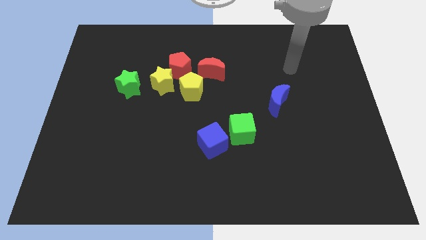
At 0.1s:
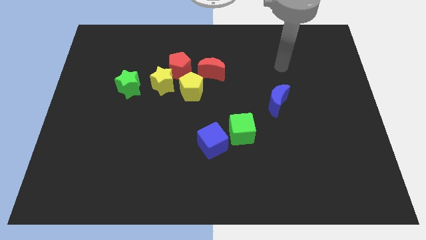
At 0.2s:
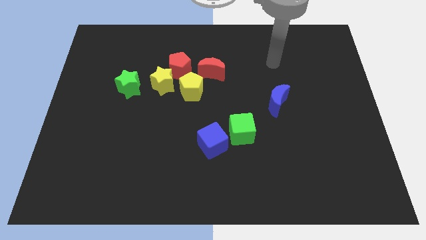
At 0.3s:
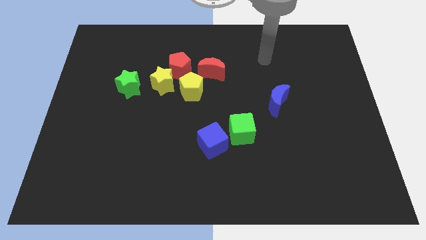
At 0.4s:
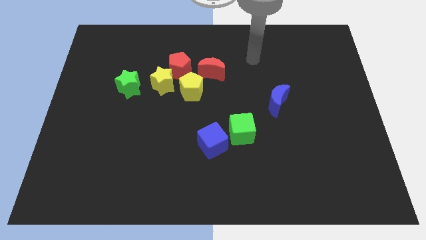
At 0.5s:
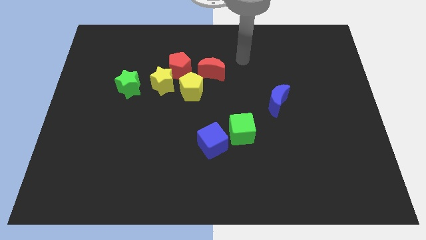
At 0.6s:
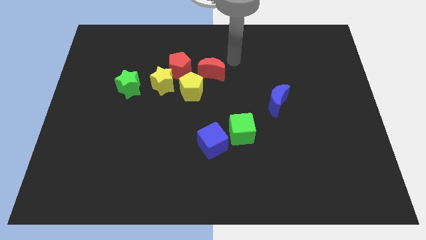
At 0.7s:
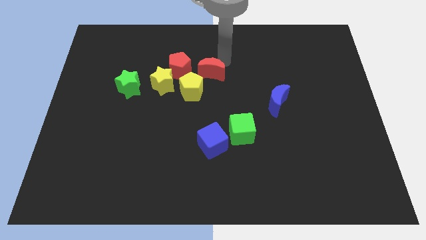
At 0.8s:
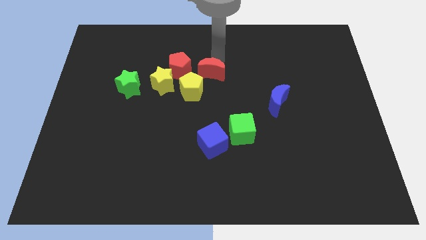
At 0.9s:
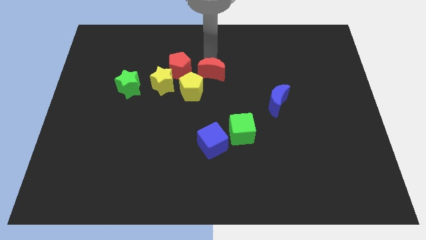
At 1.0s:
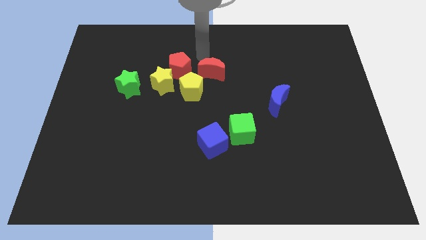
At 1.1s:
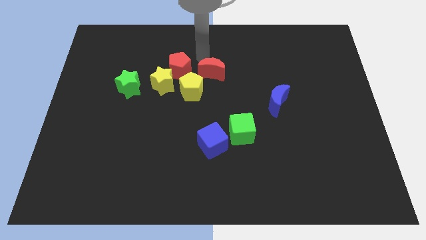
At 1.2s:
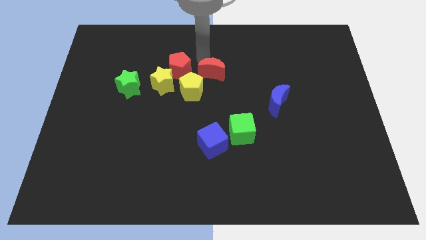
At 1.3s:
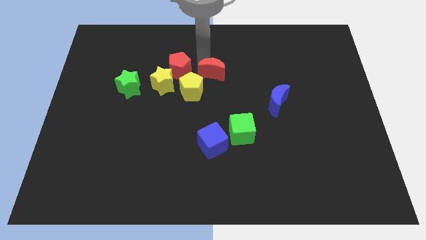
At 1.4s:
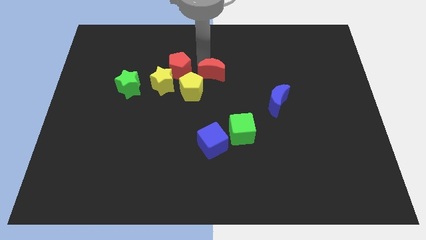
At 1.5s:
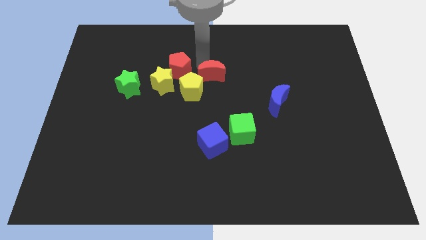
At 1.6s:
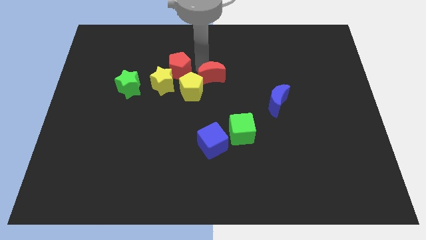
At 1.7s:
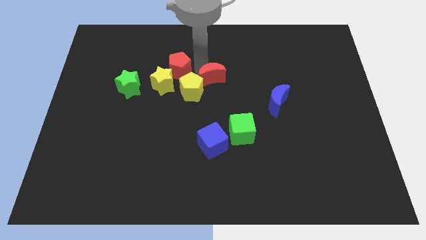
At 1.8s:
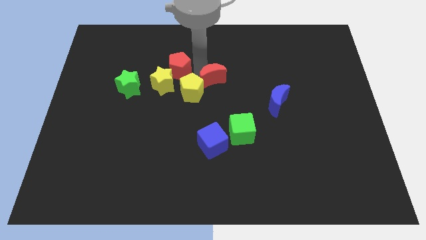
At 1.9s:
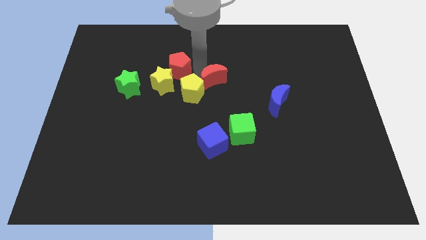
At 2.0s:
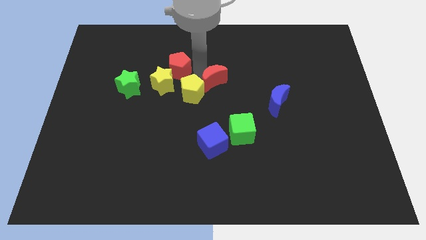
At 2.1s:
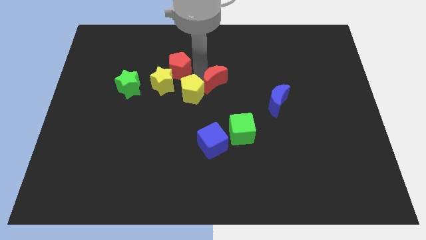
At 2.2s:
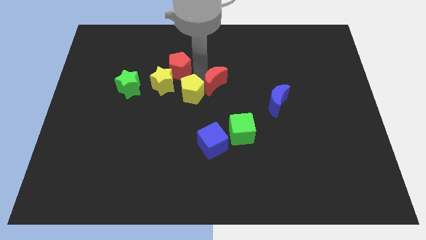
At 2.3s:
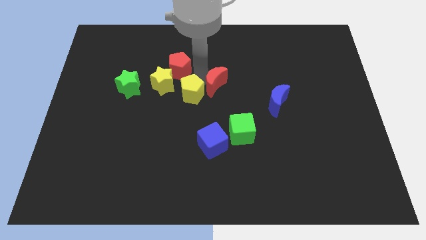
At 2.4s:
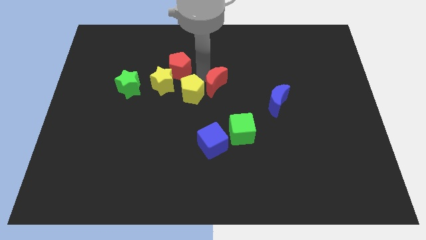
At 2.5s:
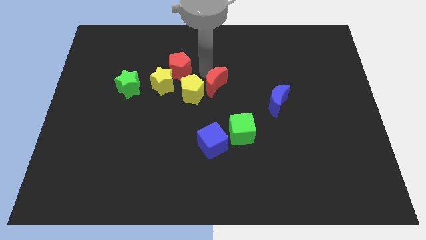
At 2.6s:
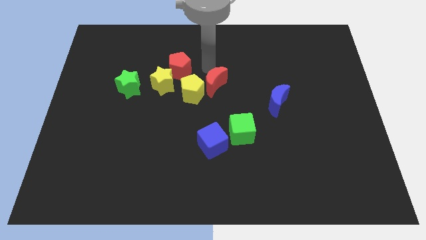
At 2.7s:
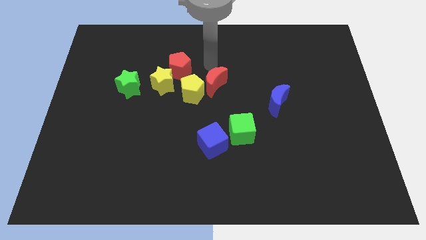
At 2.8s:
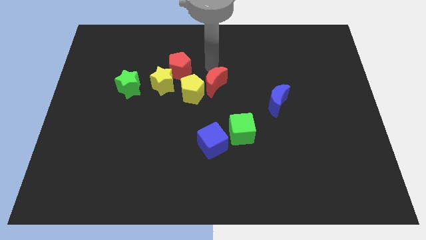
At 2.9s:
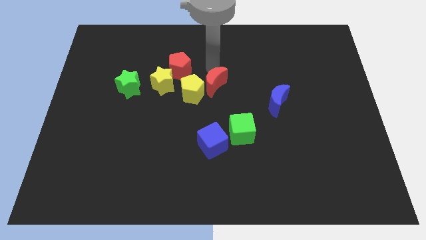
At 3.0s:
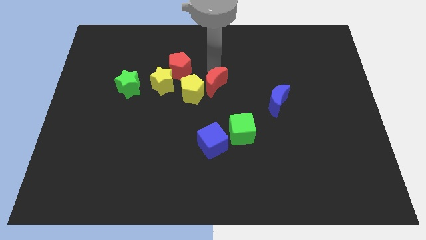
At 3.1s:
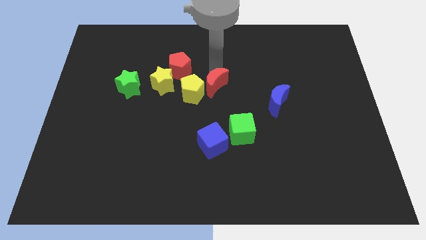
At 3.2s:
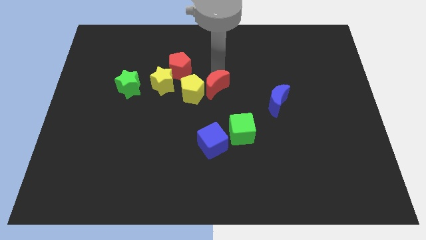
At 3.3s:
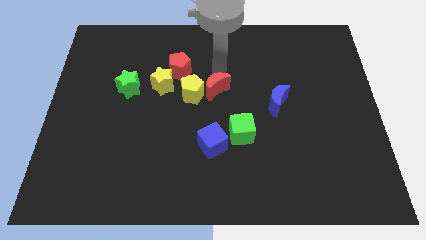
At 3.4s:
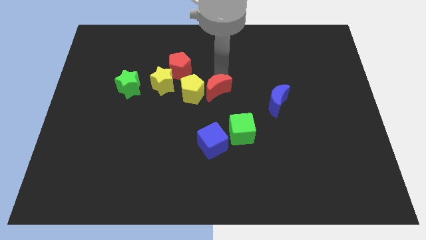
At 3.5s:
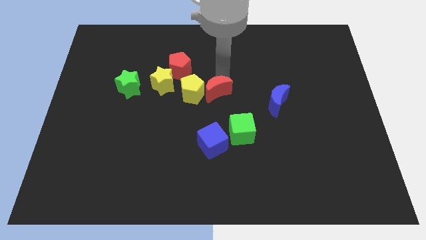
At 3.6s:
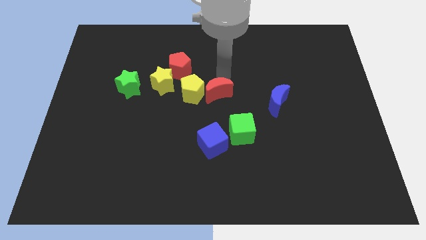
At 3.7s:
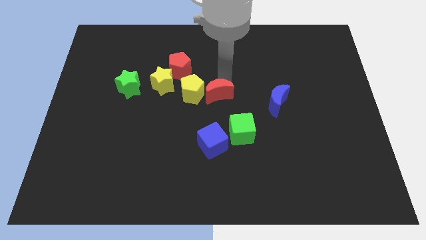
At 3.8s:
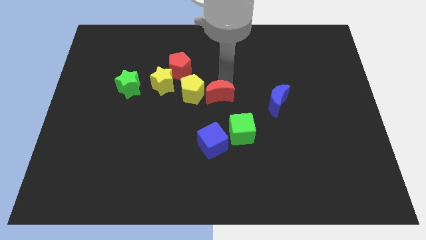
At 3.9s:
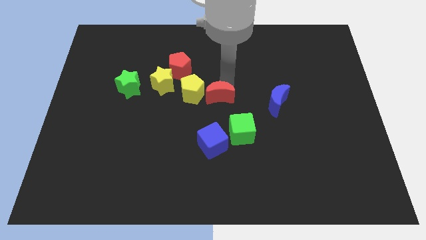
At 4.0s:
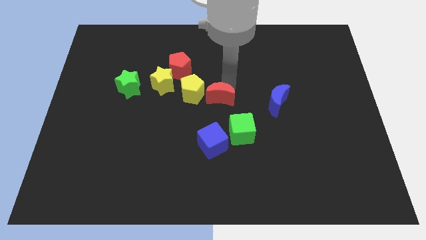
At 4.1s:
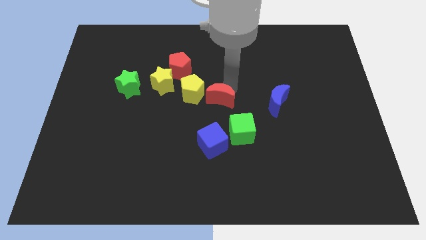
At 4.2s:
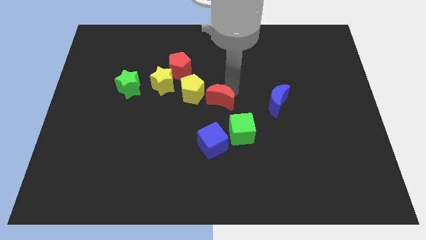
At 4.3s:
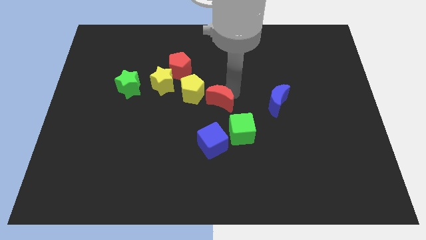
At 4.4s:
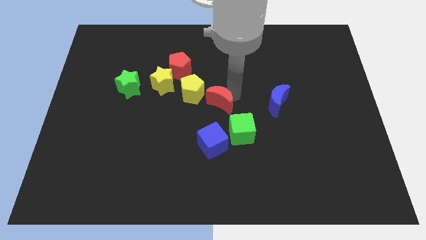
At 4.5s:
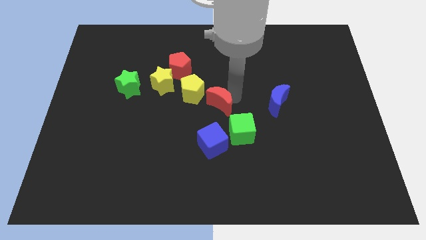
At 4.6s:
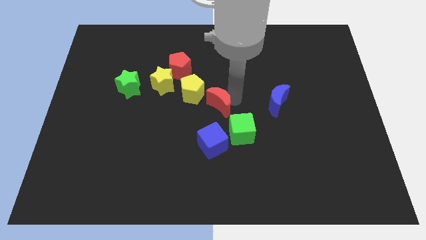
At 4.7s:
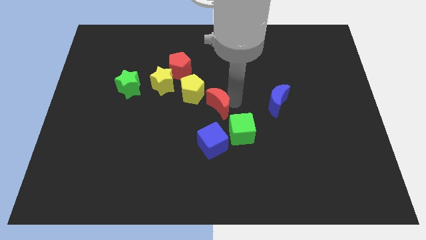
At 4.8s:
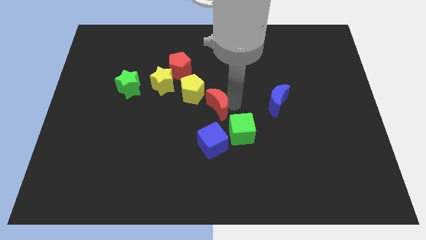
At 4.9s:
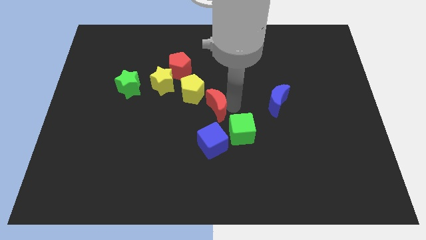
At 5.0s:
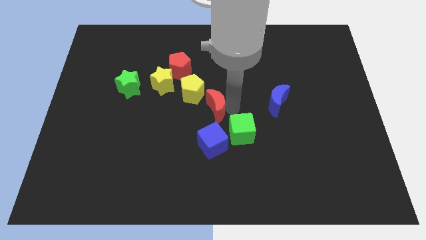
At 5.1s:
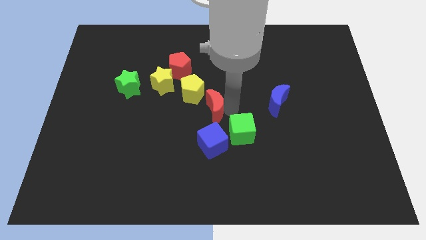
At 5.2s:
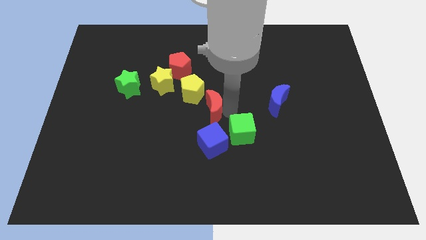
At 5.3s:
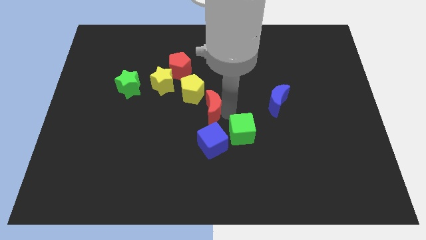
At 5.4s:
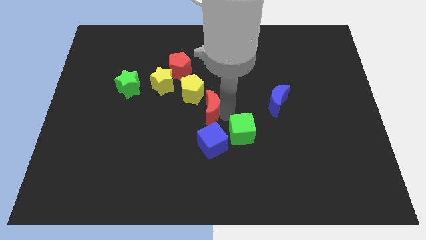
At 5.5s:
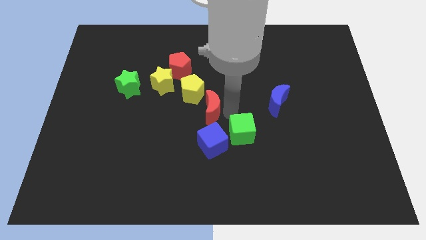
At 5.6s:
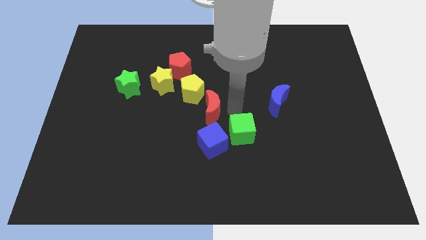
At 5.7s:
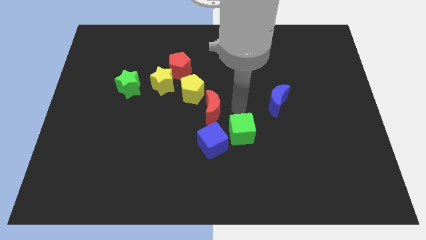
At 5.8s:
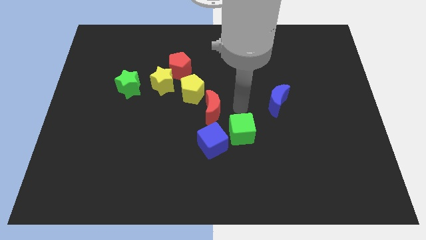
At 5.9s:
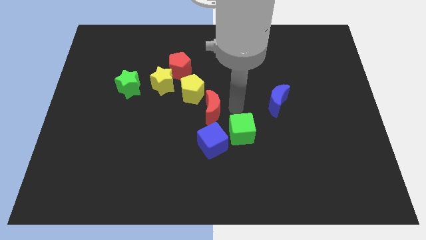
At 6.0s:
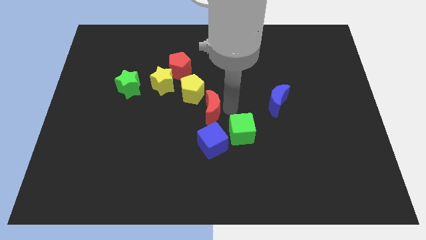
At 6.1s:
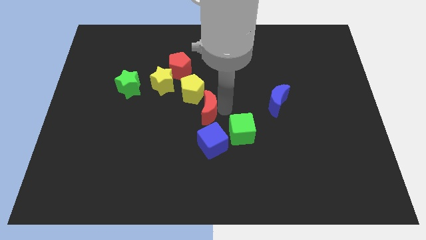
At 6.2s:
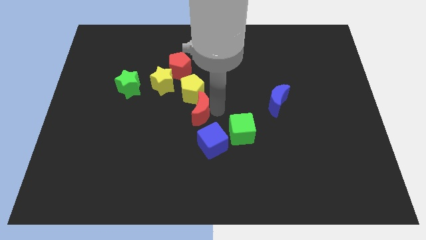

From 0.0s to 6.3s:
slightly push the red moon diagonally downwards and left

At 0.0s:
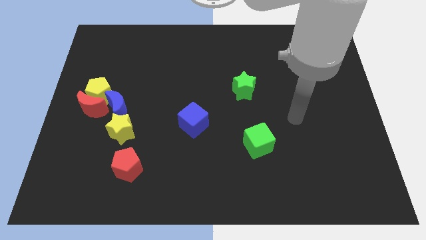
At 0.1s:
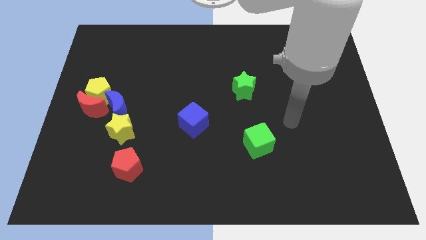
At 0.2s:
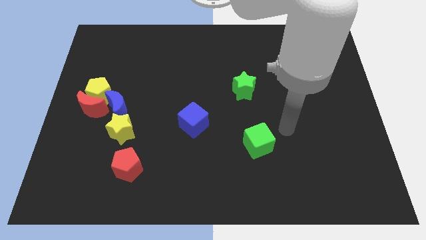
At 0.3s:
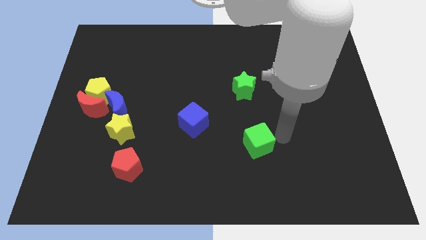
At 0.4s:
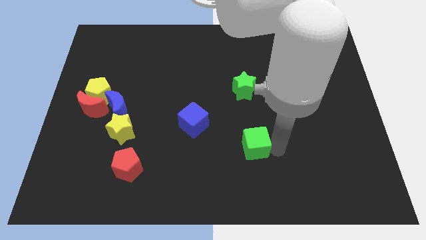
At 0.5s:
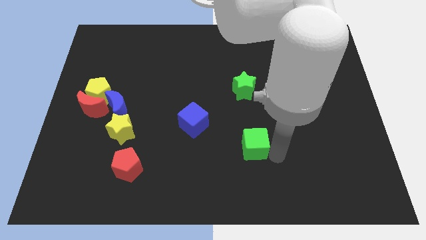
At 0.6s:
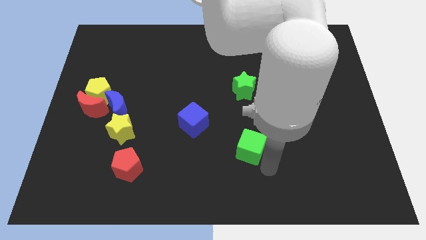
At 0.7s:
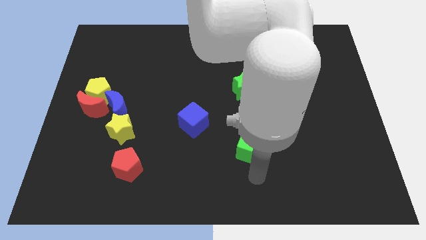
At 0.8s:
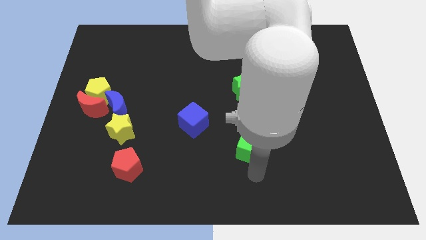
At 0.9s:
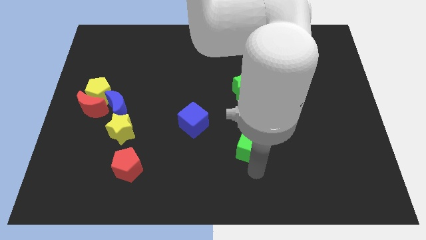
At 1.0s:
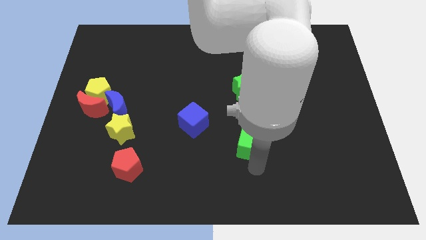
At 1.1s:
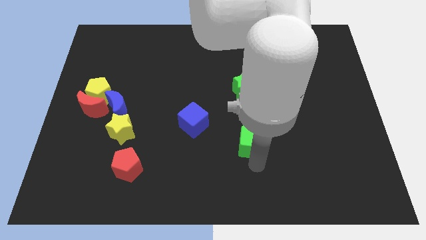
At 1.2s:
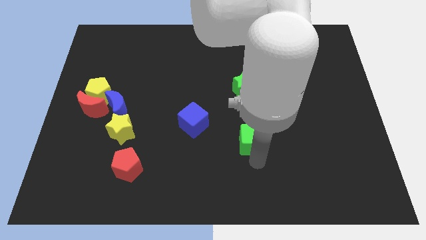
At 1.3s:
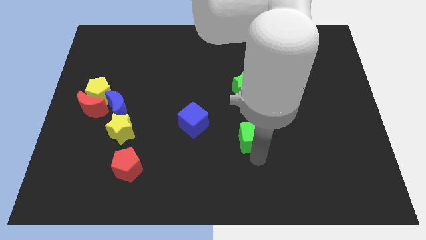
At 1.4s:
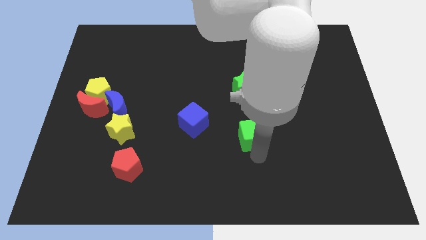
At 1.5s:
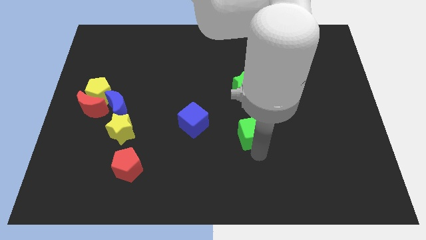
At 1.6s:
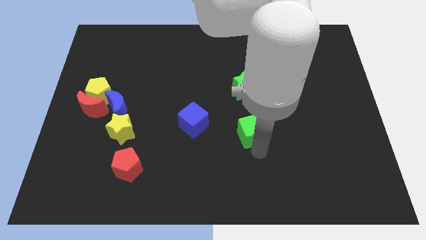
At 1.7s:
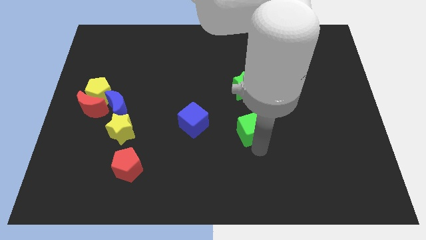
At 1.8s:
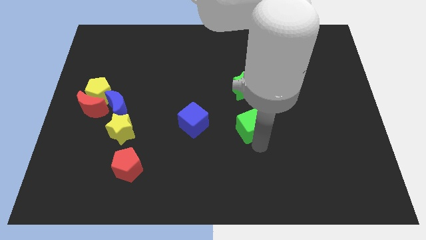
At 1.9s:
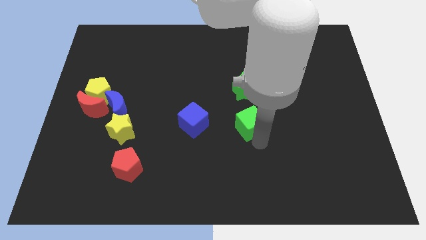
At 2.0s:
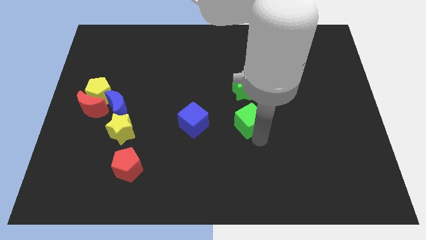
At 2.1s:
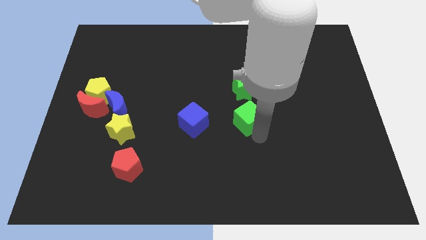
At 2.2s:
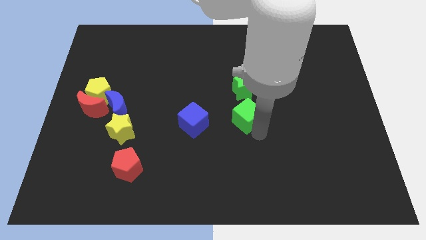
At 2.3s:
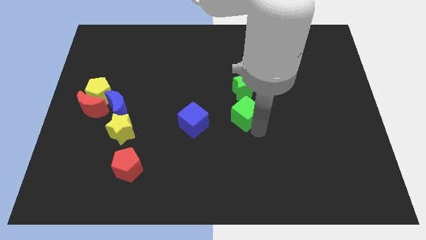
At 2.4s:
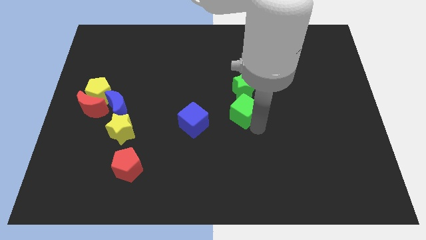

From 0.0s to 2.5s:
slightly push the green cube up and to the left diagonally
